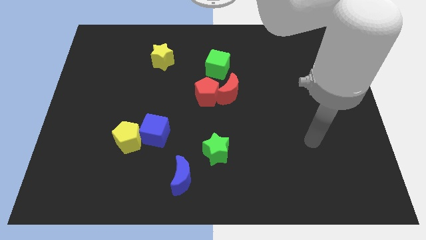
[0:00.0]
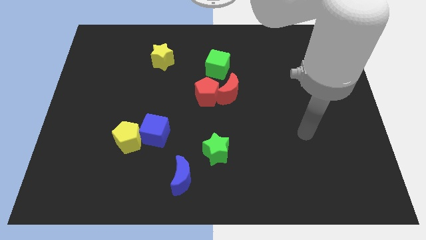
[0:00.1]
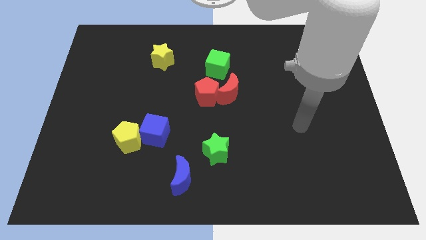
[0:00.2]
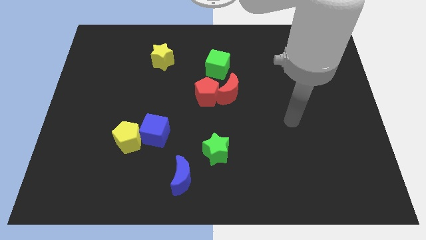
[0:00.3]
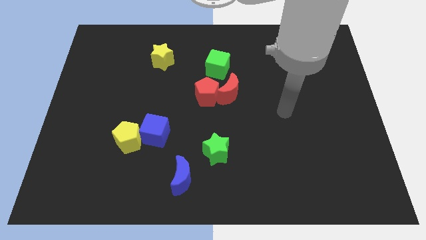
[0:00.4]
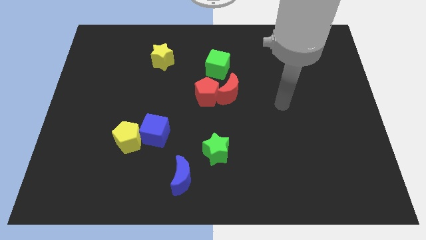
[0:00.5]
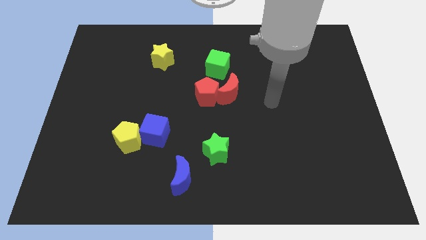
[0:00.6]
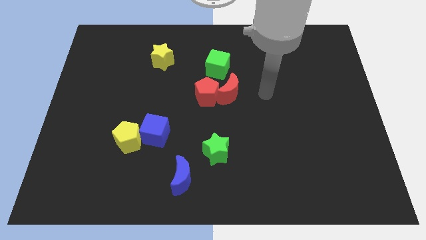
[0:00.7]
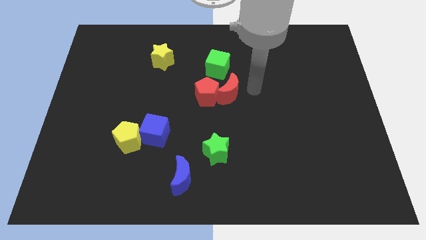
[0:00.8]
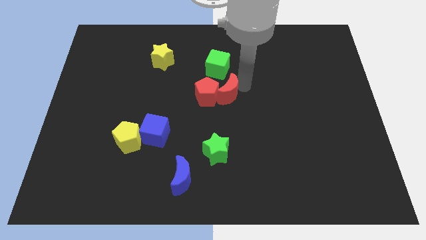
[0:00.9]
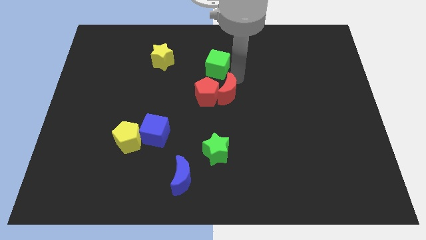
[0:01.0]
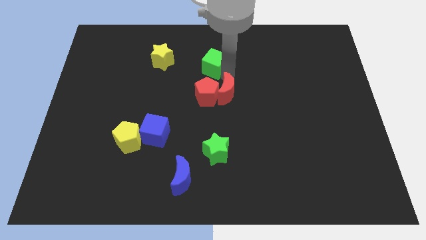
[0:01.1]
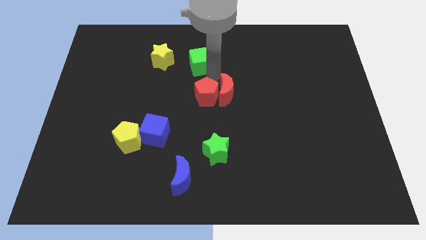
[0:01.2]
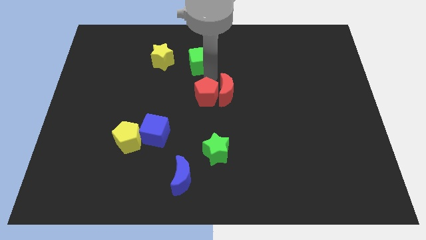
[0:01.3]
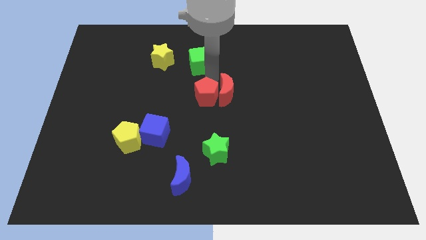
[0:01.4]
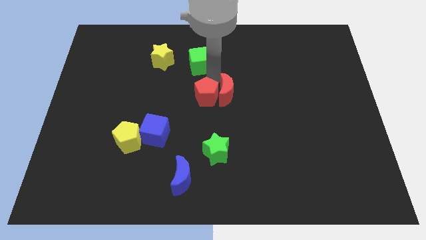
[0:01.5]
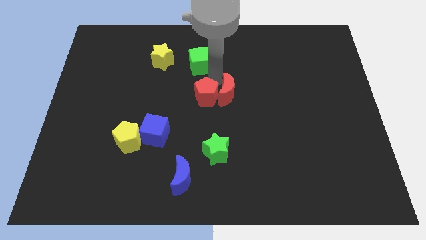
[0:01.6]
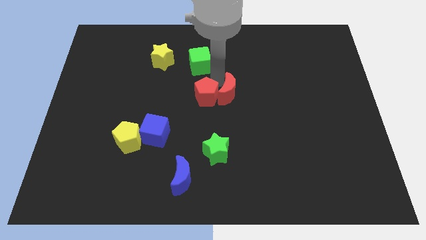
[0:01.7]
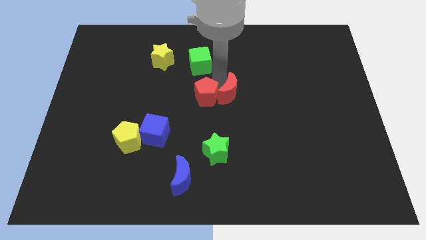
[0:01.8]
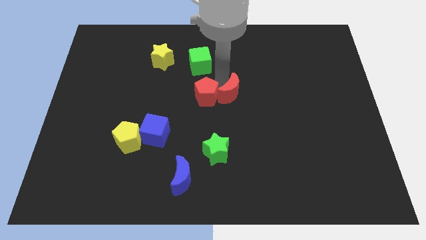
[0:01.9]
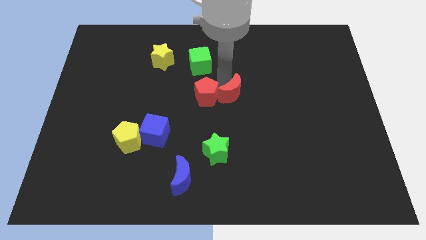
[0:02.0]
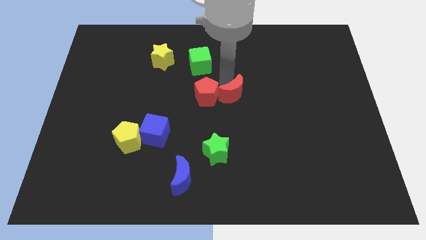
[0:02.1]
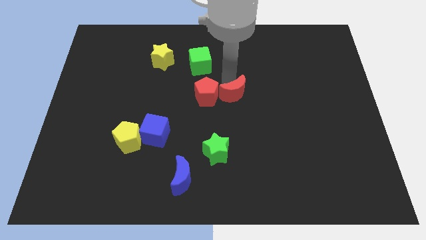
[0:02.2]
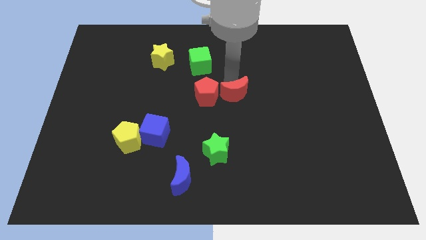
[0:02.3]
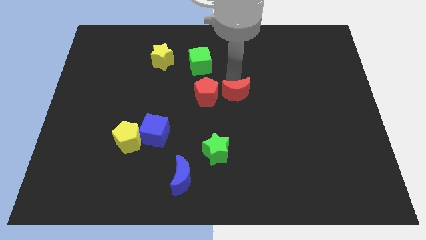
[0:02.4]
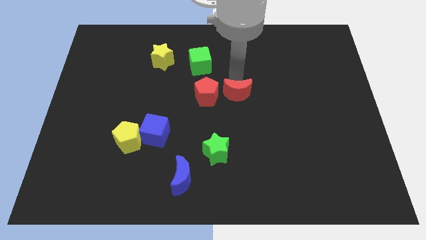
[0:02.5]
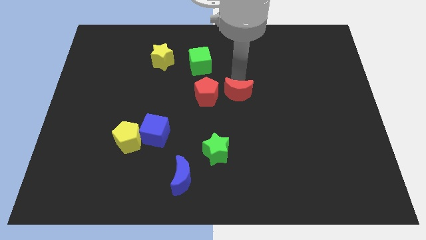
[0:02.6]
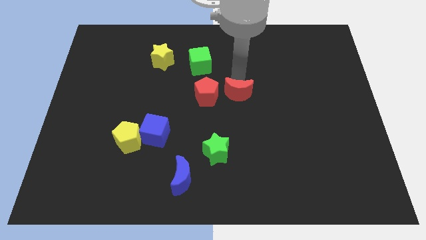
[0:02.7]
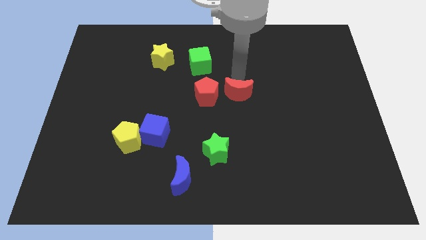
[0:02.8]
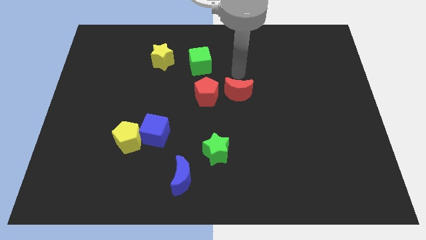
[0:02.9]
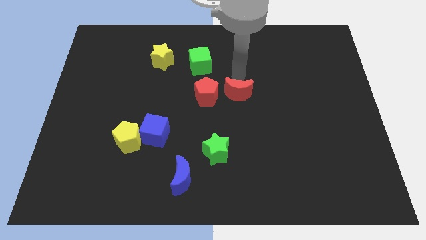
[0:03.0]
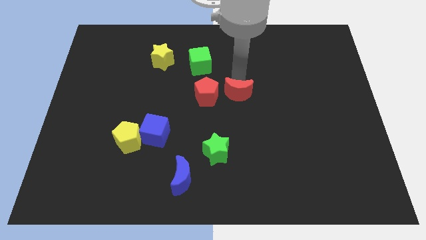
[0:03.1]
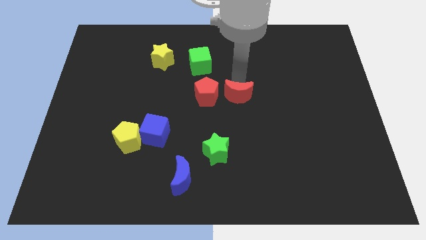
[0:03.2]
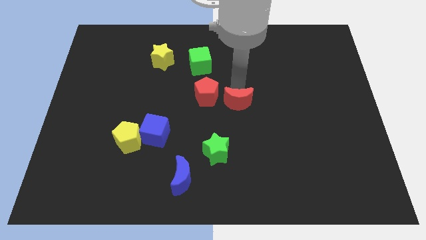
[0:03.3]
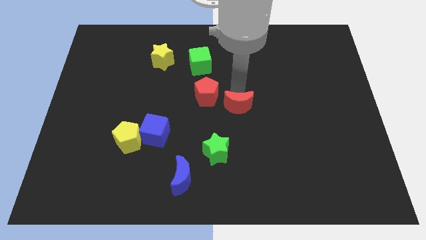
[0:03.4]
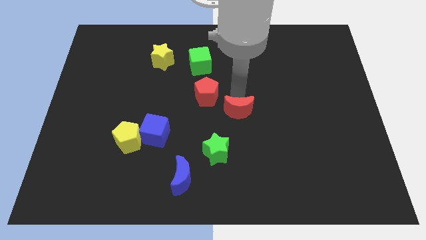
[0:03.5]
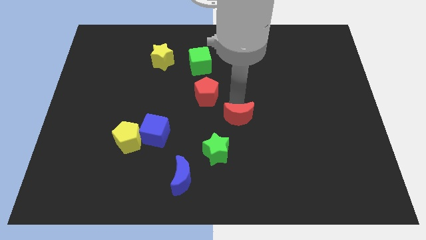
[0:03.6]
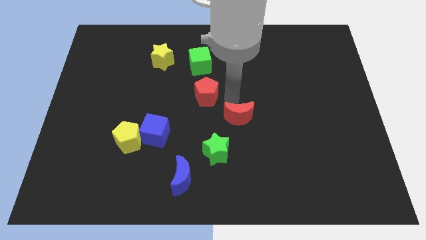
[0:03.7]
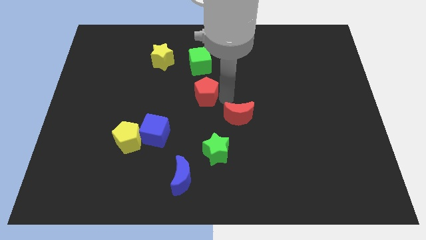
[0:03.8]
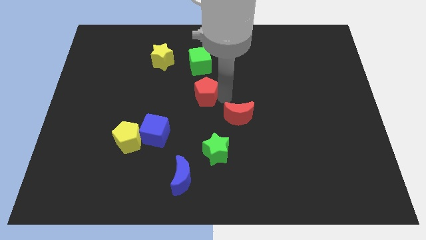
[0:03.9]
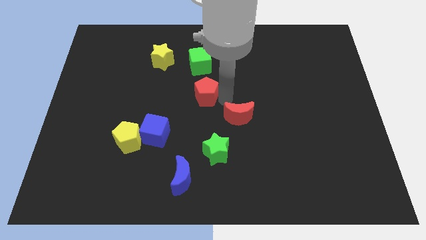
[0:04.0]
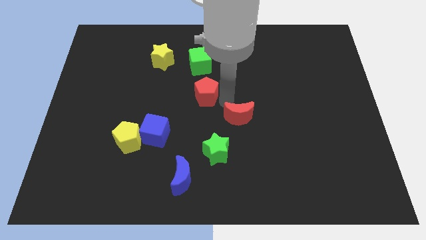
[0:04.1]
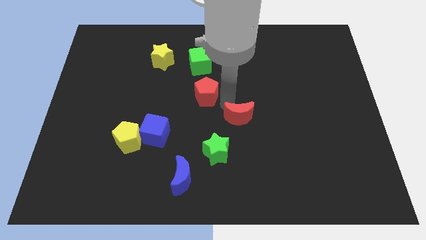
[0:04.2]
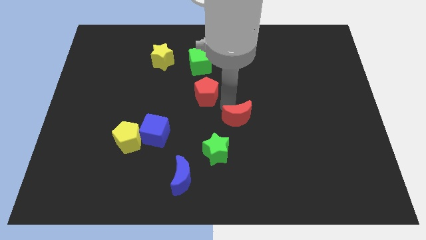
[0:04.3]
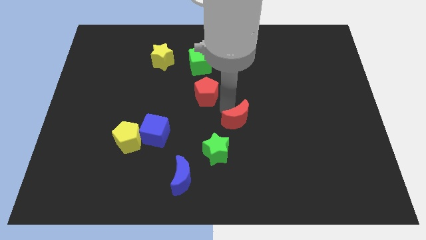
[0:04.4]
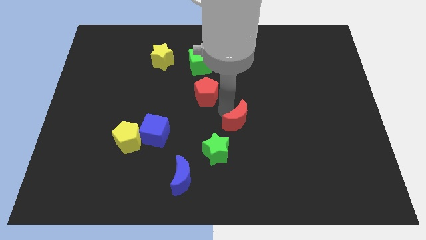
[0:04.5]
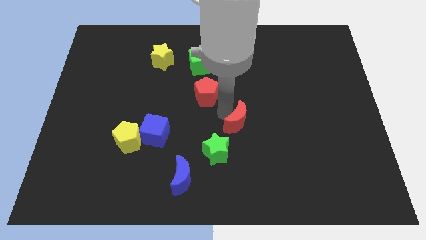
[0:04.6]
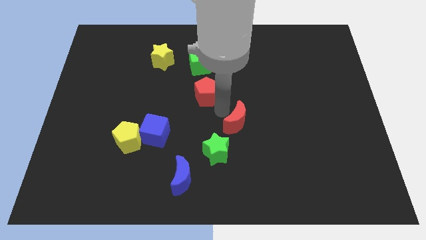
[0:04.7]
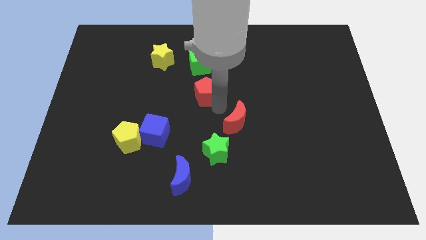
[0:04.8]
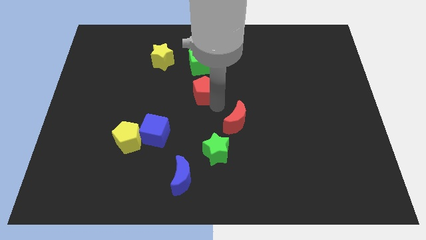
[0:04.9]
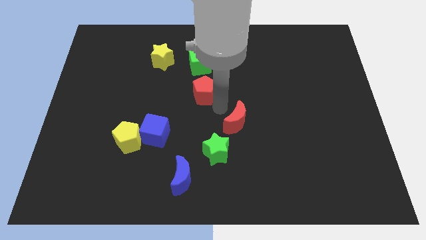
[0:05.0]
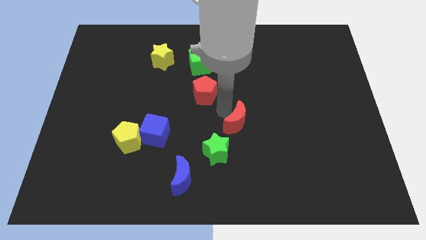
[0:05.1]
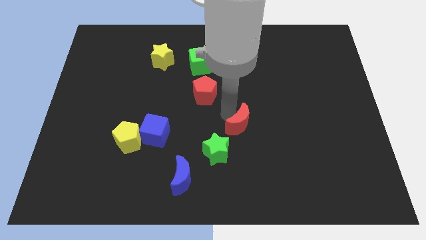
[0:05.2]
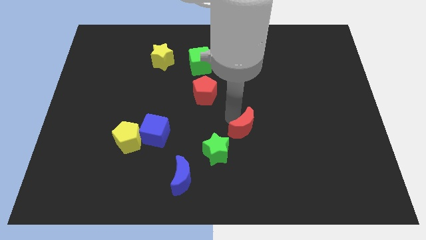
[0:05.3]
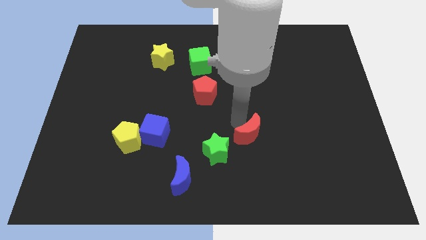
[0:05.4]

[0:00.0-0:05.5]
put the red moon to the right side of the green star
